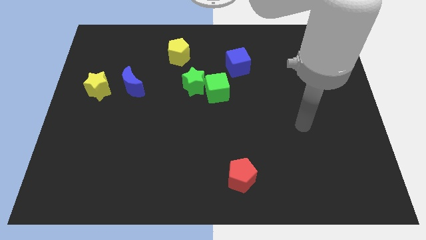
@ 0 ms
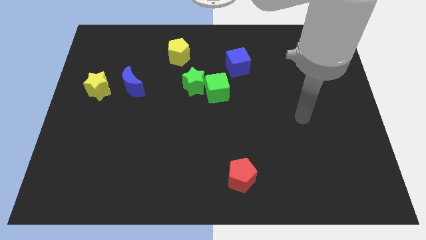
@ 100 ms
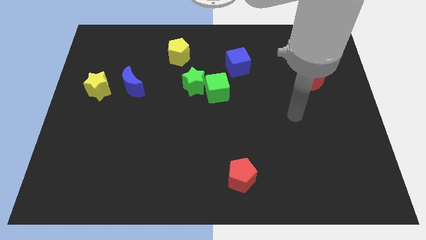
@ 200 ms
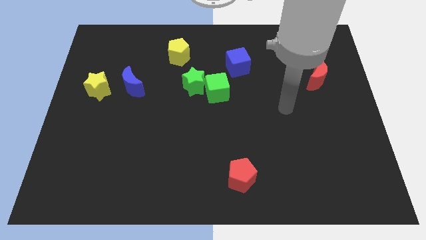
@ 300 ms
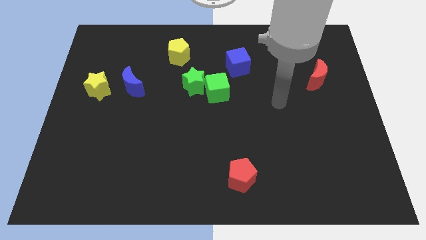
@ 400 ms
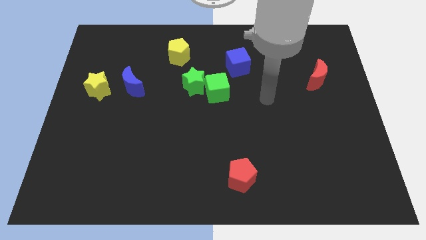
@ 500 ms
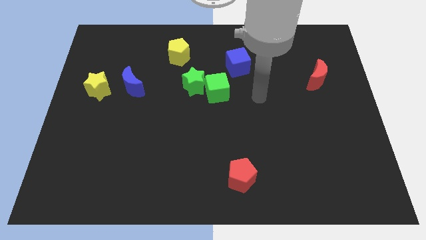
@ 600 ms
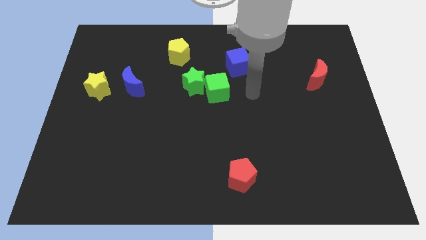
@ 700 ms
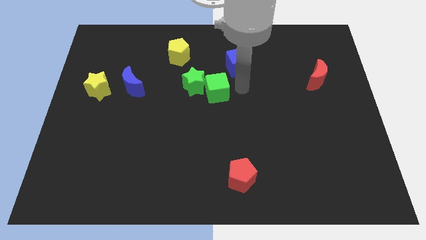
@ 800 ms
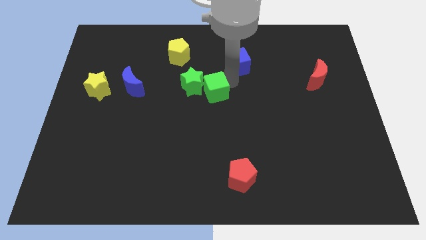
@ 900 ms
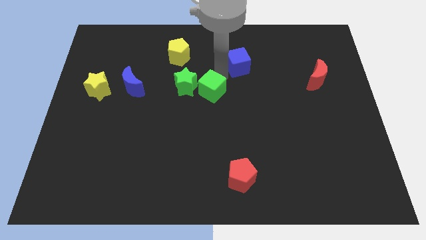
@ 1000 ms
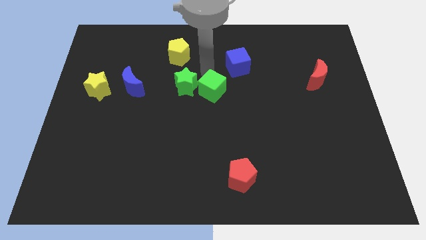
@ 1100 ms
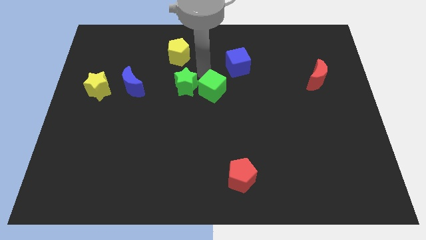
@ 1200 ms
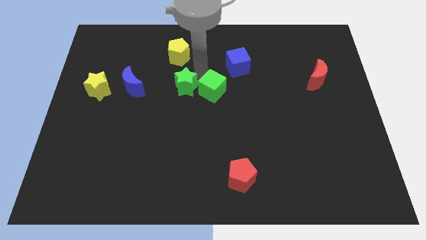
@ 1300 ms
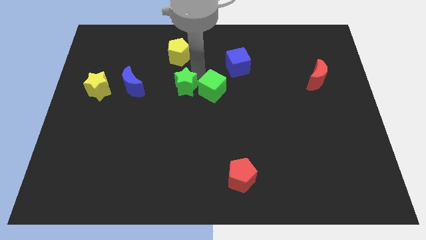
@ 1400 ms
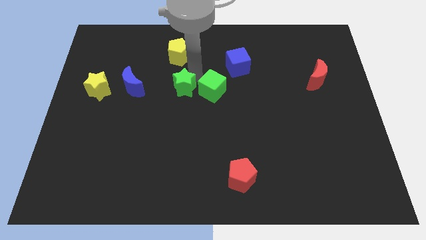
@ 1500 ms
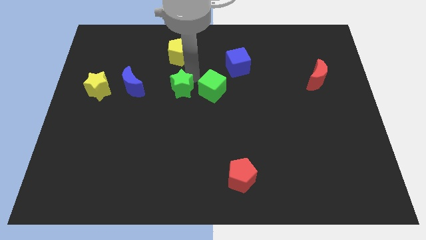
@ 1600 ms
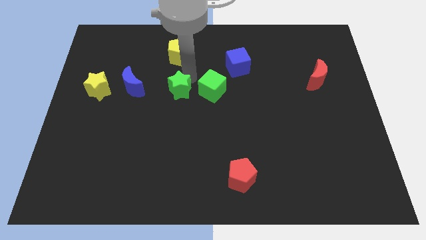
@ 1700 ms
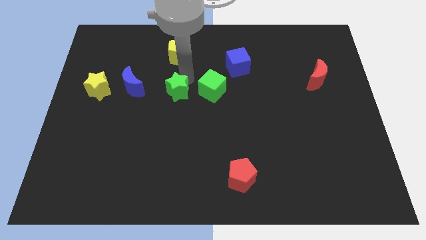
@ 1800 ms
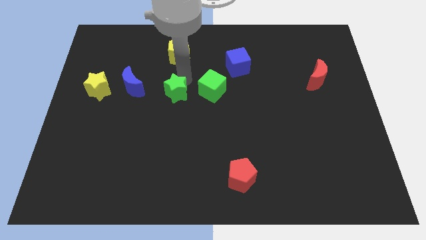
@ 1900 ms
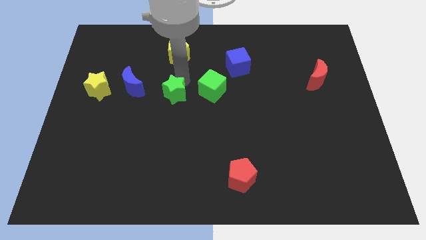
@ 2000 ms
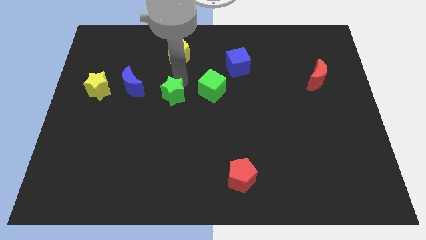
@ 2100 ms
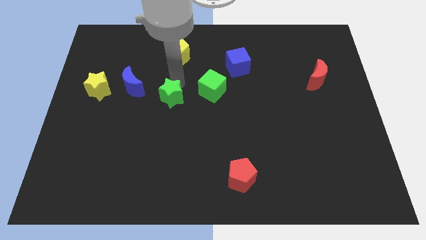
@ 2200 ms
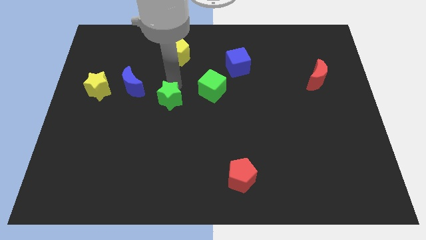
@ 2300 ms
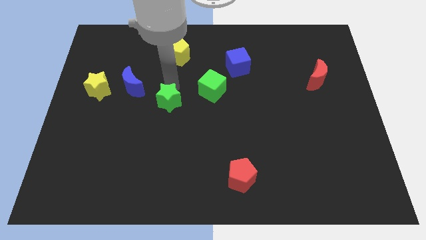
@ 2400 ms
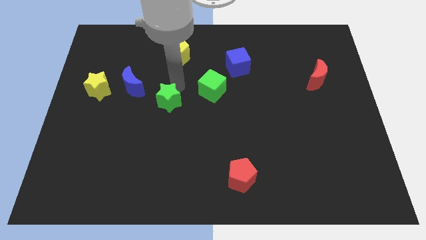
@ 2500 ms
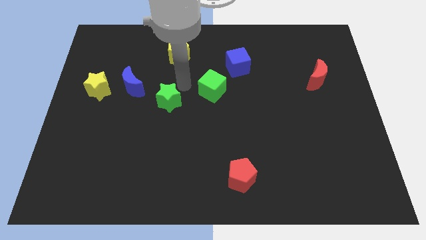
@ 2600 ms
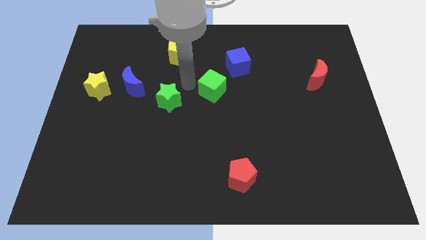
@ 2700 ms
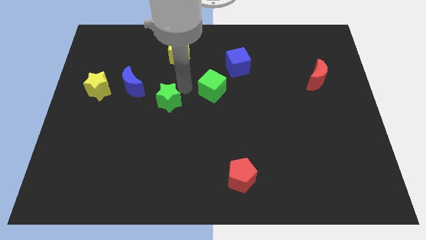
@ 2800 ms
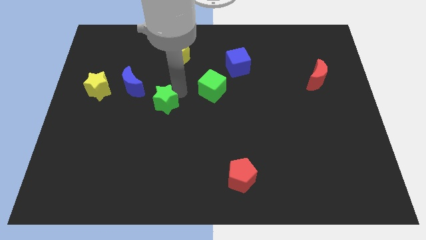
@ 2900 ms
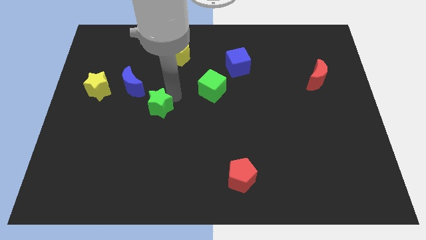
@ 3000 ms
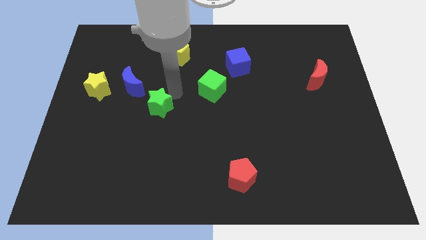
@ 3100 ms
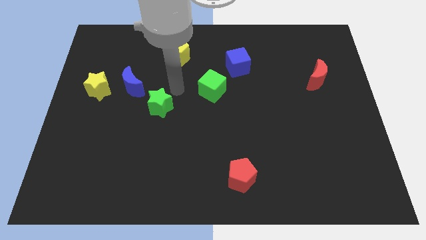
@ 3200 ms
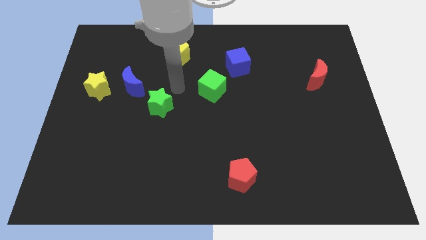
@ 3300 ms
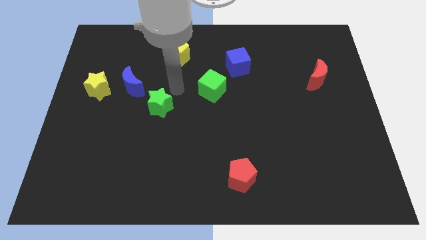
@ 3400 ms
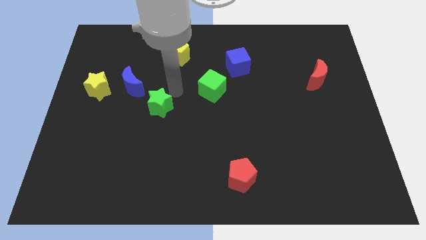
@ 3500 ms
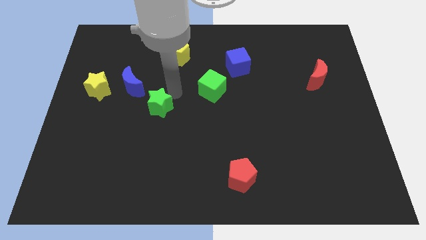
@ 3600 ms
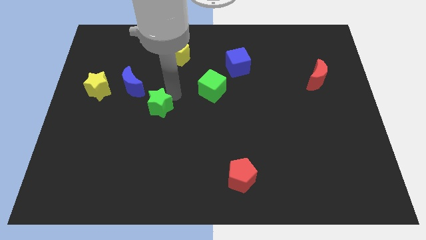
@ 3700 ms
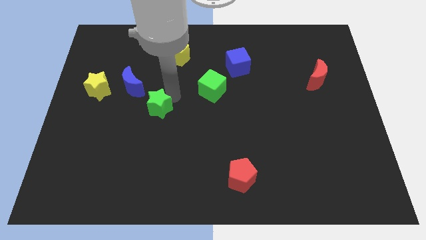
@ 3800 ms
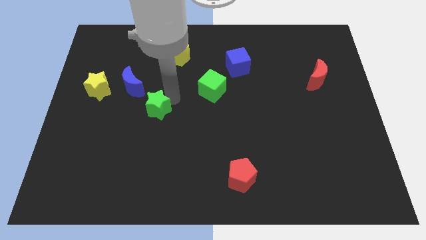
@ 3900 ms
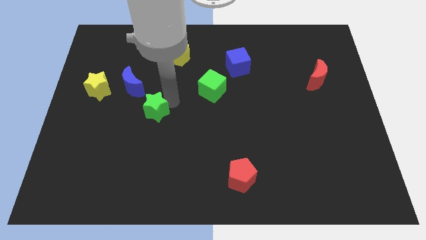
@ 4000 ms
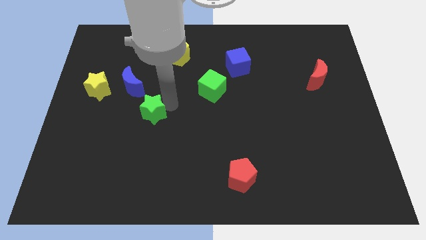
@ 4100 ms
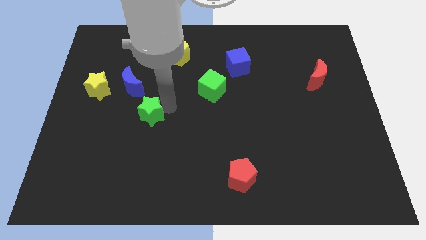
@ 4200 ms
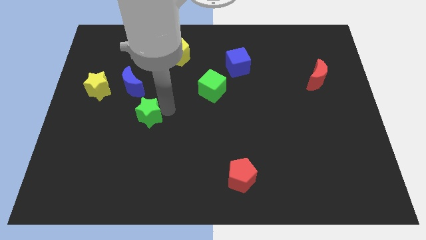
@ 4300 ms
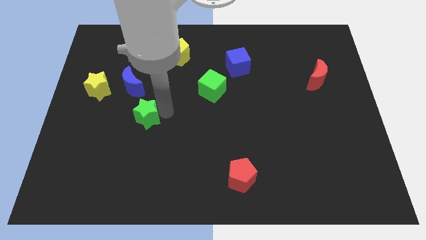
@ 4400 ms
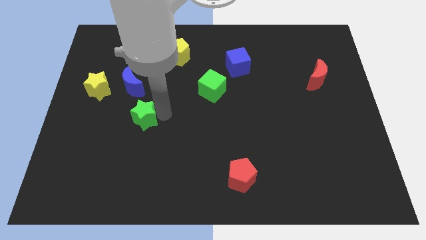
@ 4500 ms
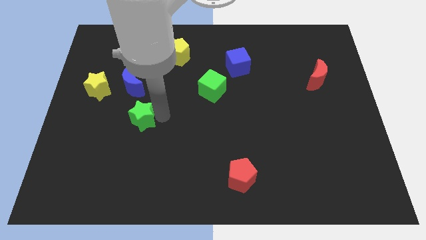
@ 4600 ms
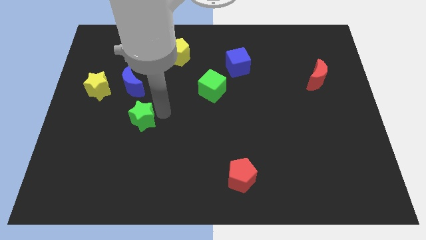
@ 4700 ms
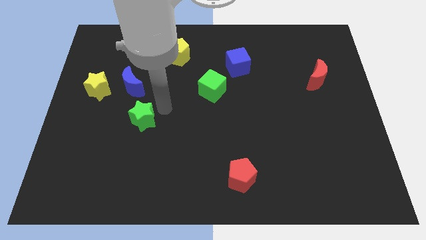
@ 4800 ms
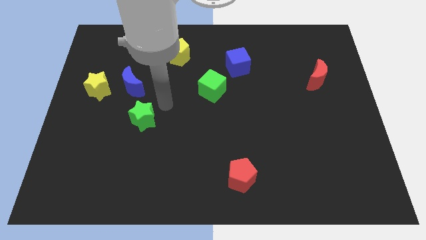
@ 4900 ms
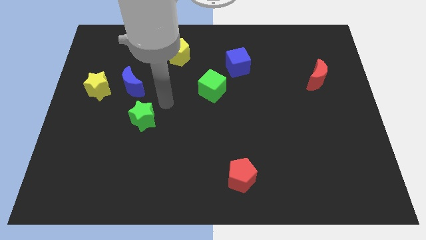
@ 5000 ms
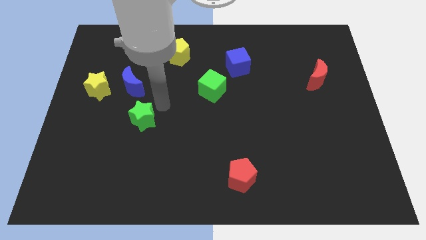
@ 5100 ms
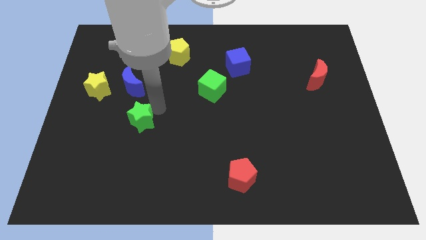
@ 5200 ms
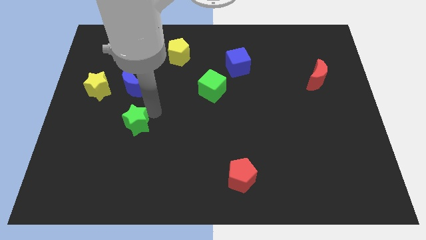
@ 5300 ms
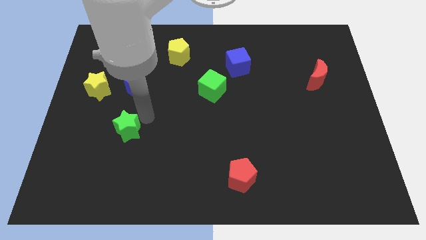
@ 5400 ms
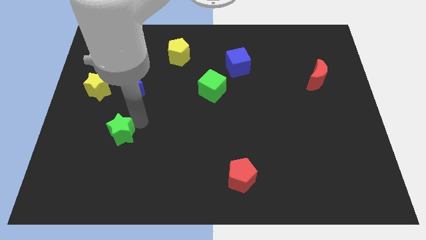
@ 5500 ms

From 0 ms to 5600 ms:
slide the green star downwards and to the left

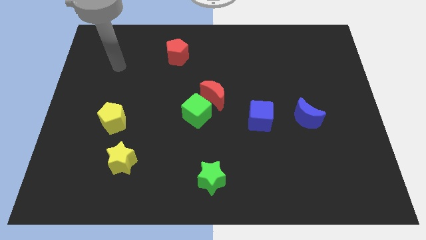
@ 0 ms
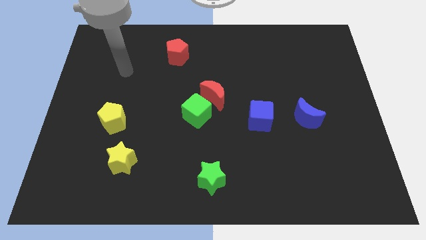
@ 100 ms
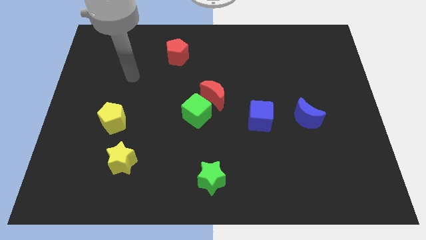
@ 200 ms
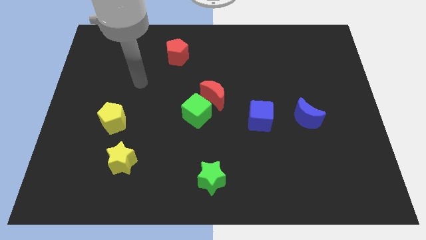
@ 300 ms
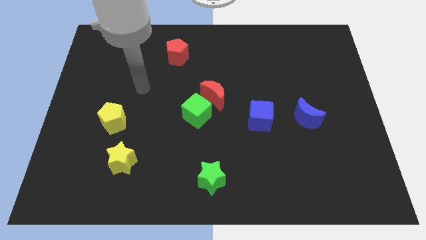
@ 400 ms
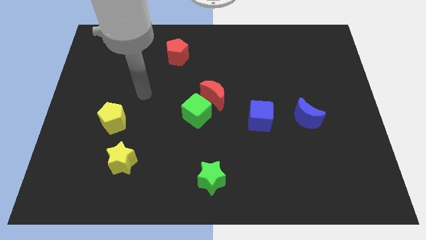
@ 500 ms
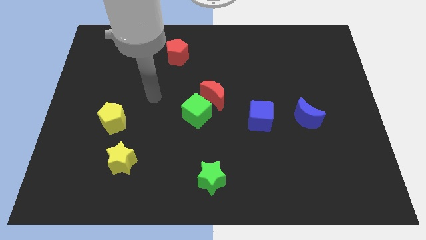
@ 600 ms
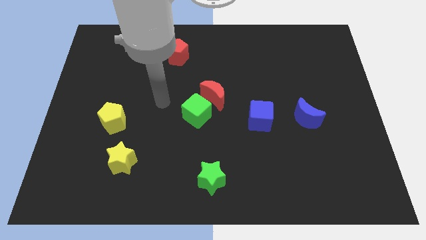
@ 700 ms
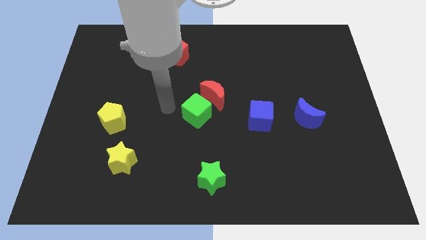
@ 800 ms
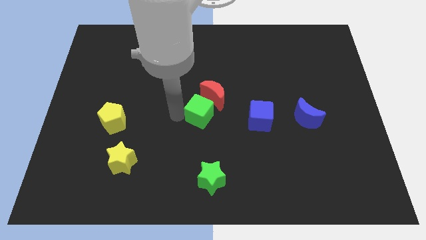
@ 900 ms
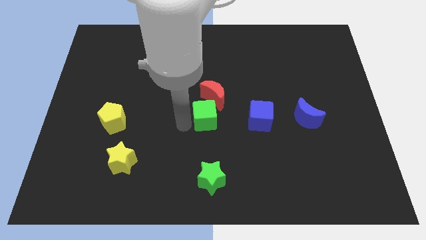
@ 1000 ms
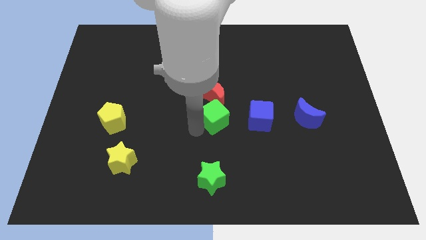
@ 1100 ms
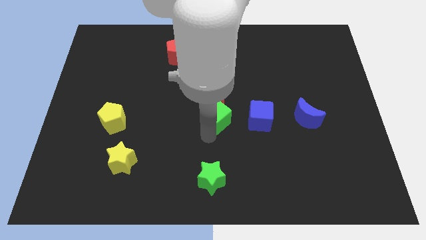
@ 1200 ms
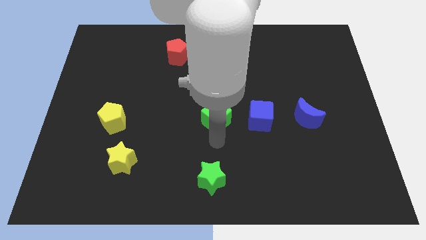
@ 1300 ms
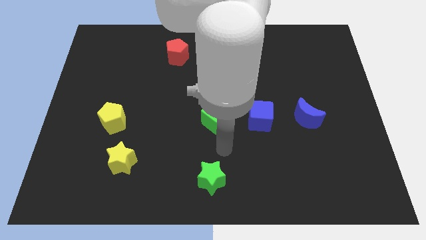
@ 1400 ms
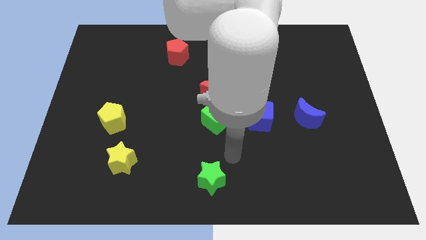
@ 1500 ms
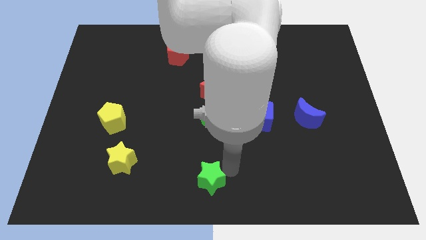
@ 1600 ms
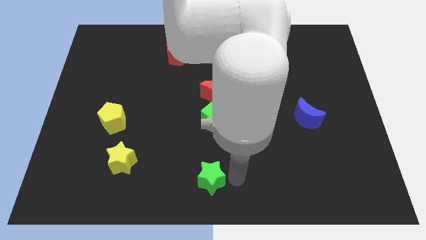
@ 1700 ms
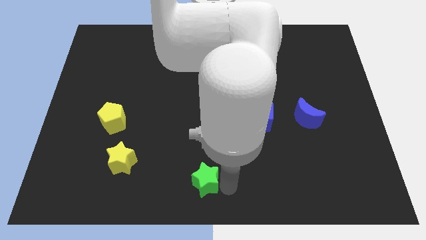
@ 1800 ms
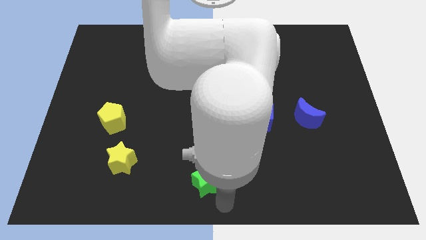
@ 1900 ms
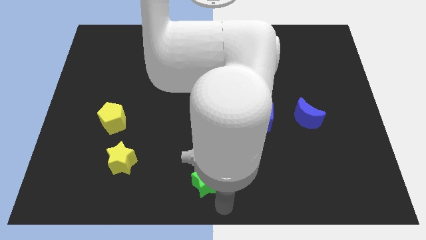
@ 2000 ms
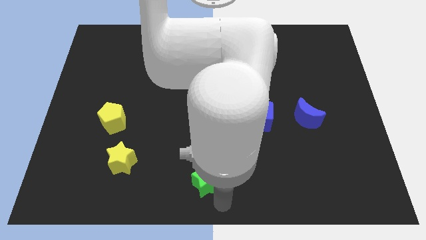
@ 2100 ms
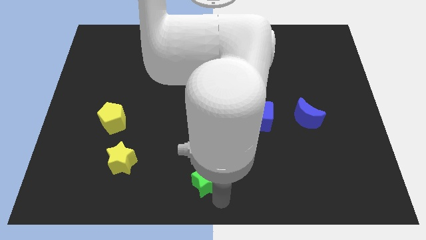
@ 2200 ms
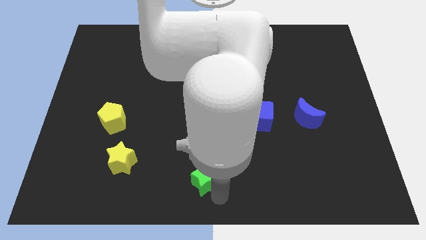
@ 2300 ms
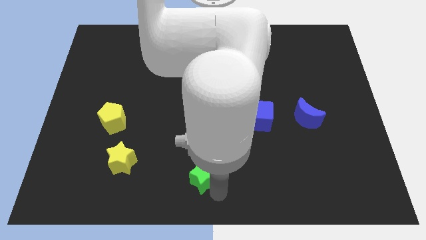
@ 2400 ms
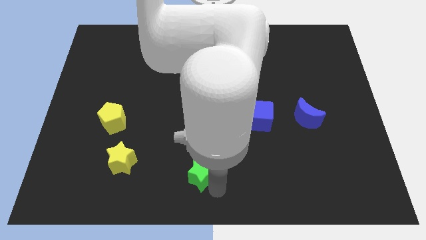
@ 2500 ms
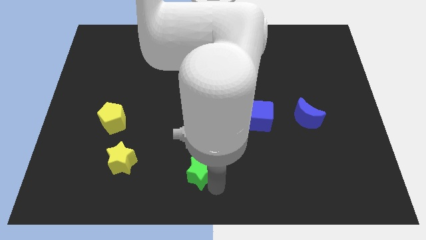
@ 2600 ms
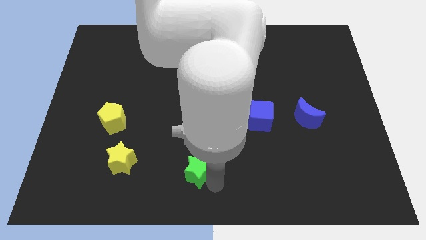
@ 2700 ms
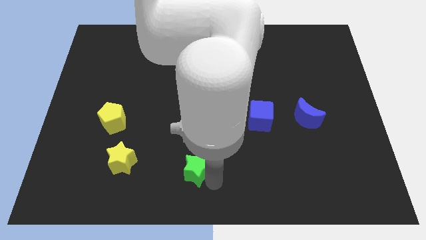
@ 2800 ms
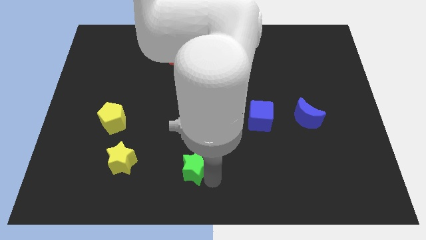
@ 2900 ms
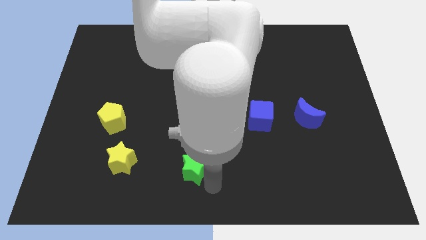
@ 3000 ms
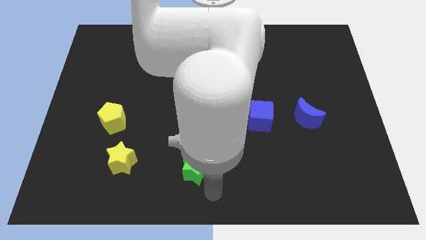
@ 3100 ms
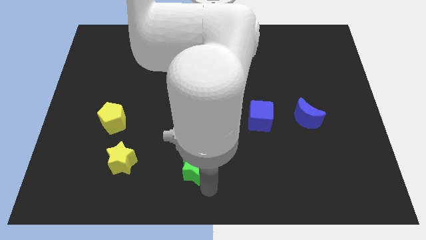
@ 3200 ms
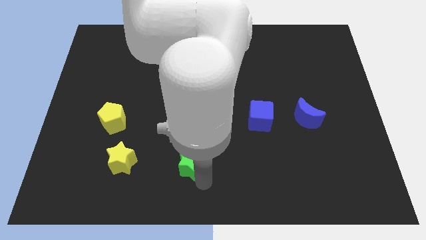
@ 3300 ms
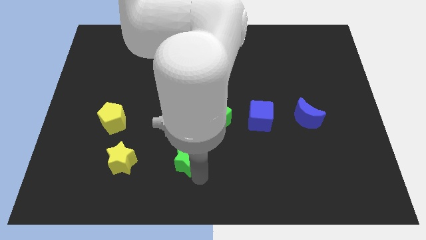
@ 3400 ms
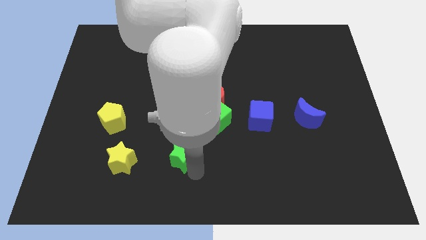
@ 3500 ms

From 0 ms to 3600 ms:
slide the green star up and to the left diagonally a little bit
